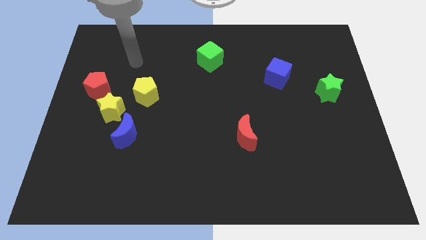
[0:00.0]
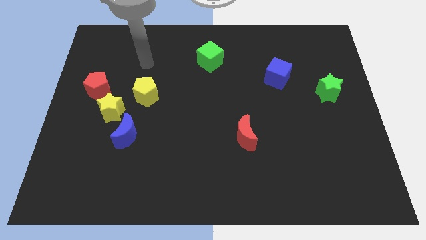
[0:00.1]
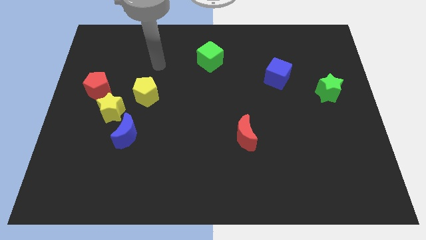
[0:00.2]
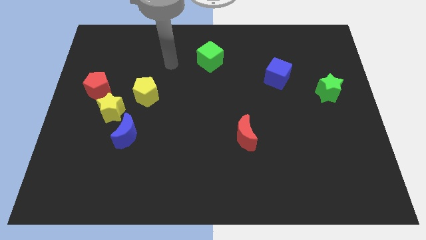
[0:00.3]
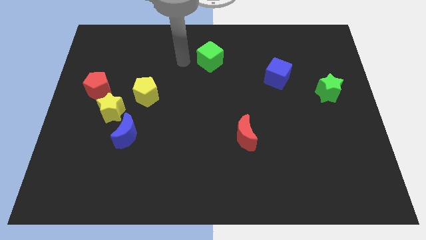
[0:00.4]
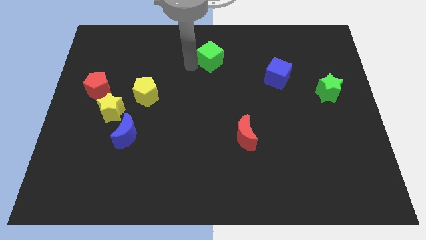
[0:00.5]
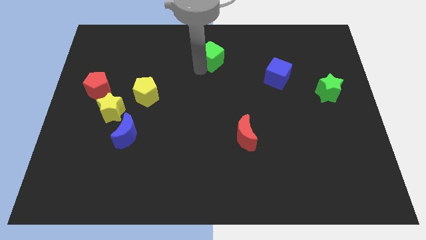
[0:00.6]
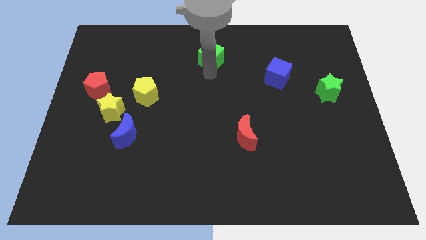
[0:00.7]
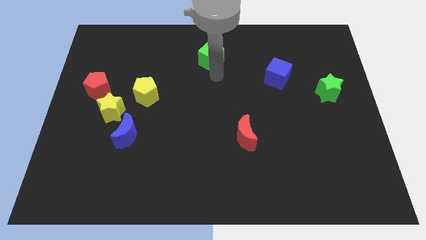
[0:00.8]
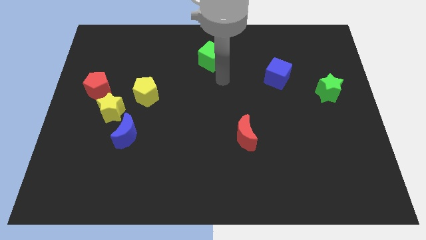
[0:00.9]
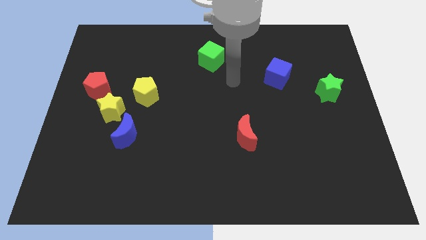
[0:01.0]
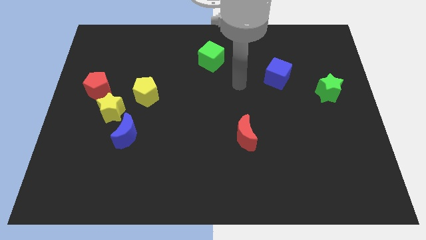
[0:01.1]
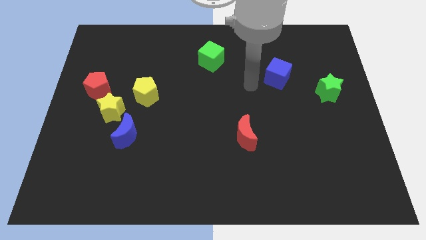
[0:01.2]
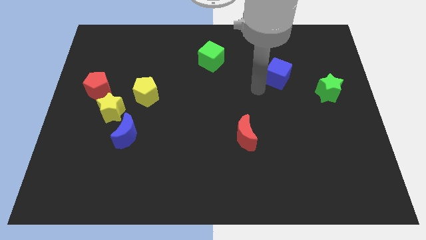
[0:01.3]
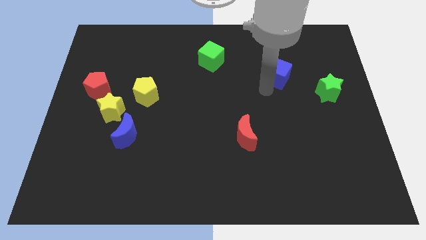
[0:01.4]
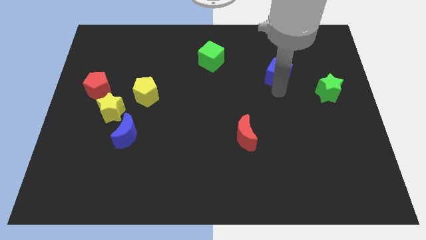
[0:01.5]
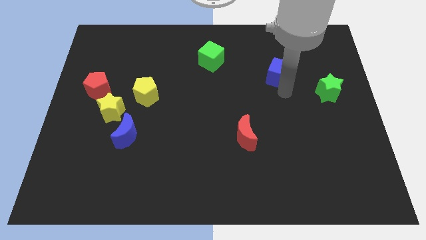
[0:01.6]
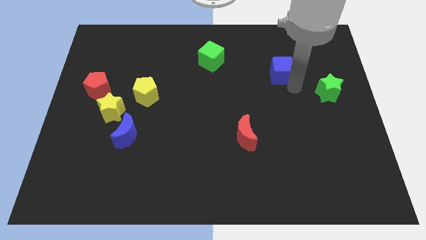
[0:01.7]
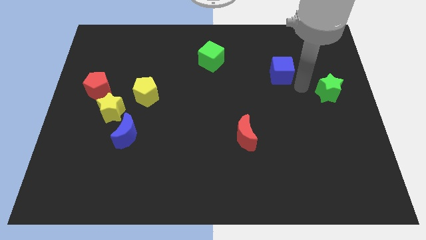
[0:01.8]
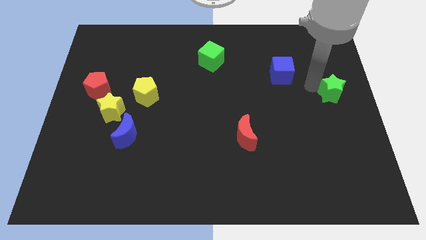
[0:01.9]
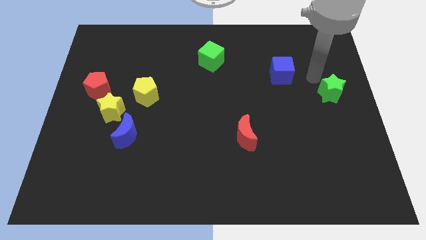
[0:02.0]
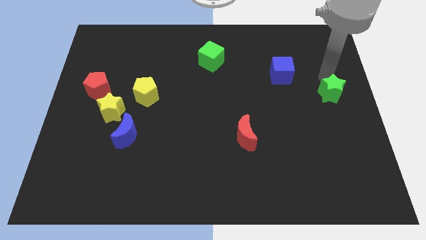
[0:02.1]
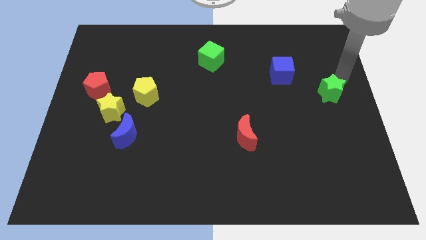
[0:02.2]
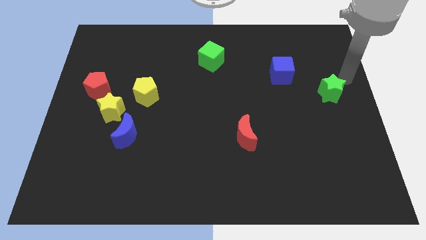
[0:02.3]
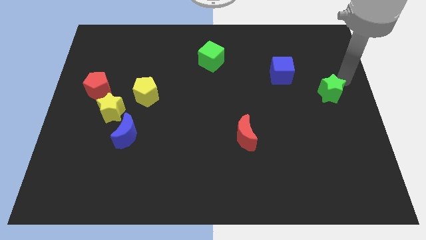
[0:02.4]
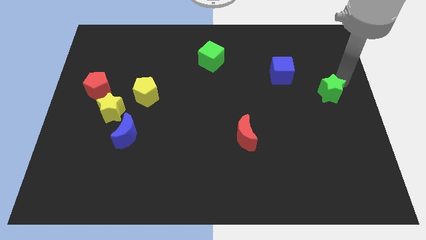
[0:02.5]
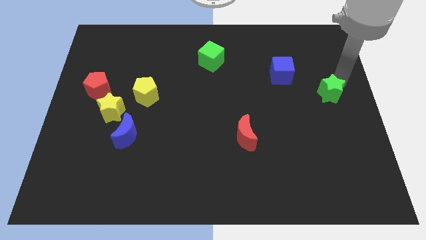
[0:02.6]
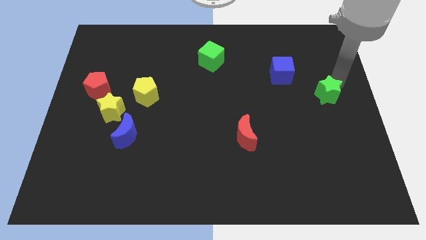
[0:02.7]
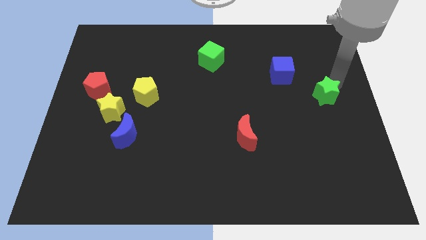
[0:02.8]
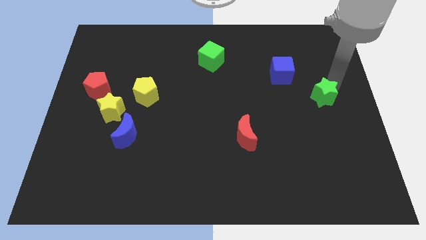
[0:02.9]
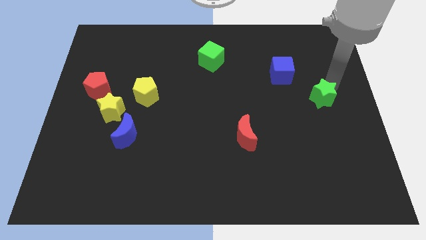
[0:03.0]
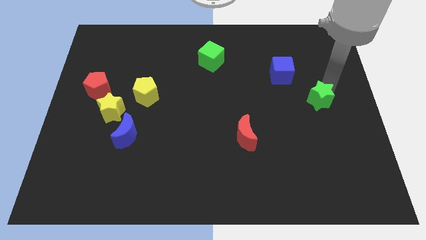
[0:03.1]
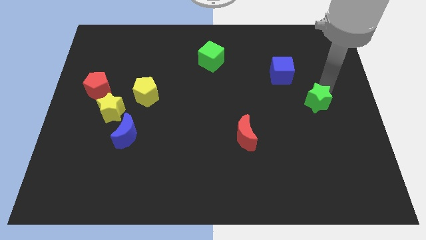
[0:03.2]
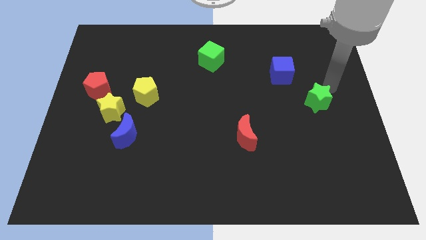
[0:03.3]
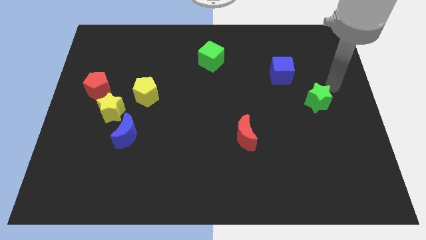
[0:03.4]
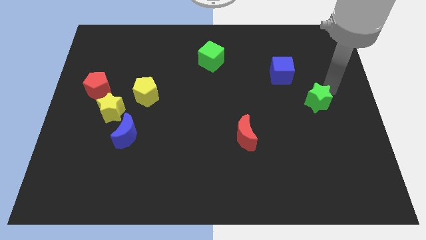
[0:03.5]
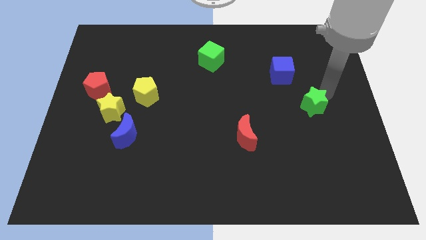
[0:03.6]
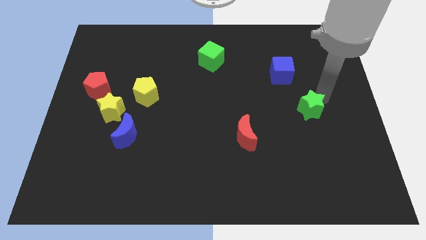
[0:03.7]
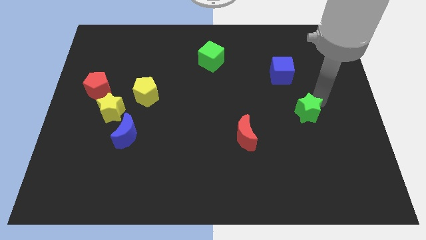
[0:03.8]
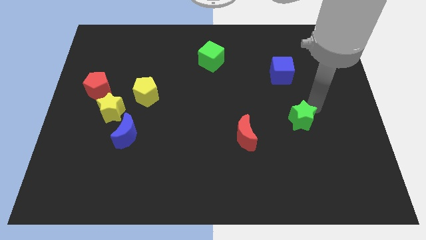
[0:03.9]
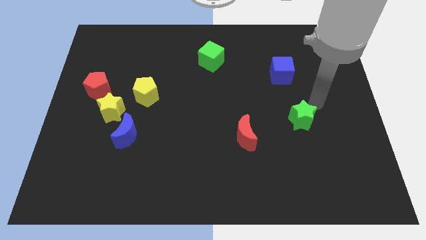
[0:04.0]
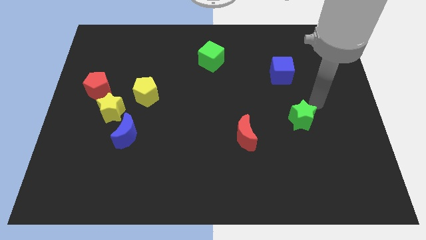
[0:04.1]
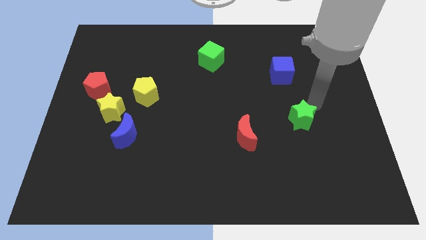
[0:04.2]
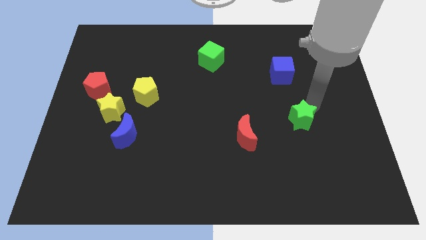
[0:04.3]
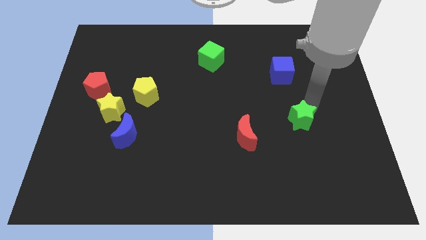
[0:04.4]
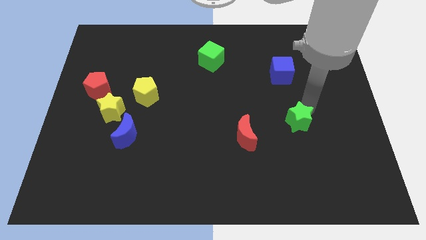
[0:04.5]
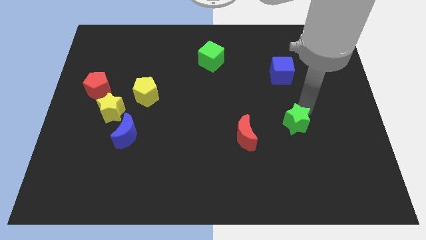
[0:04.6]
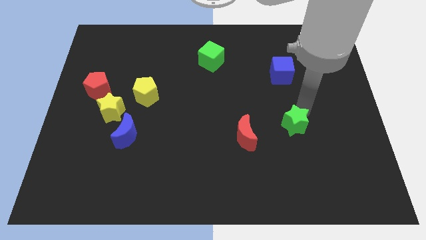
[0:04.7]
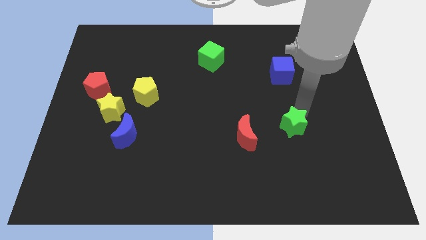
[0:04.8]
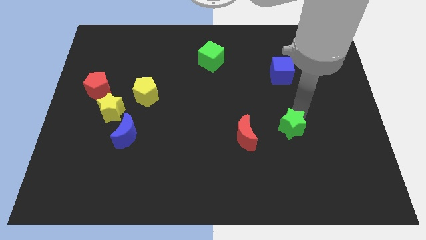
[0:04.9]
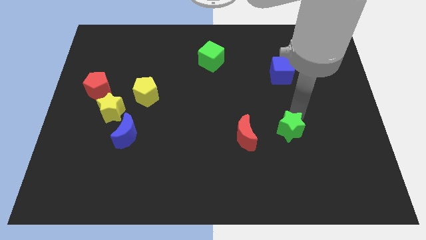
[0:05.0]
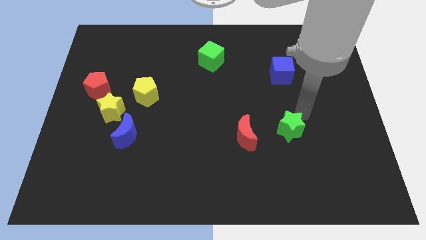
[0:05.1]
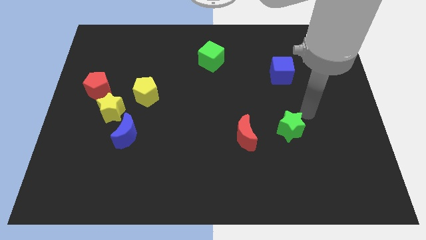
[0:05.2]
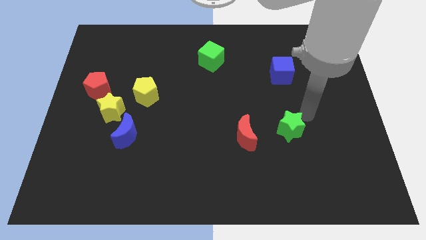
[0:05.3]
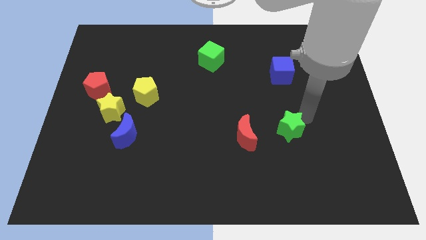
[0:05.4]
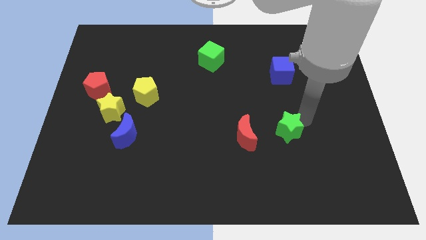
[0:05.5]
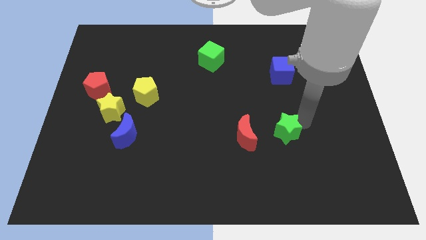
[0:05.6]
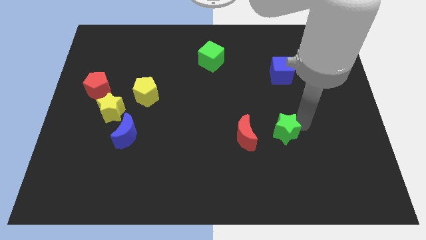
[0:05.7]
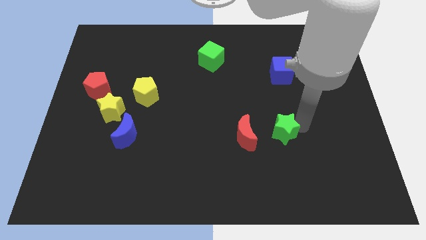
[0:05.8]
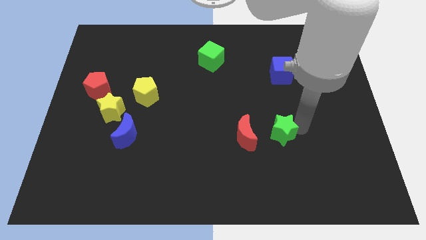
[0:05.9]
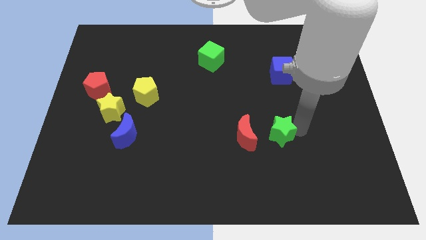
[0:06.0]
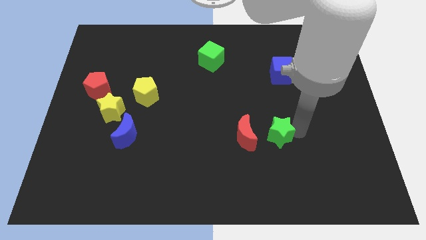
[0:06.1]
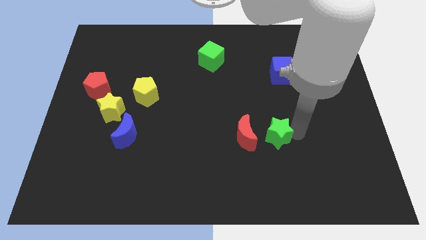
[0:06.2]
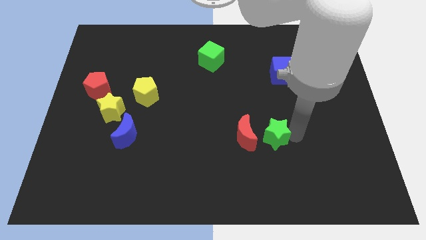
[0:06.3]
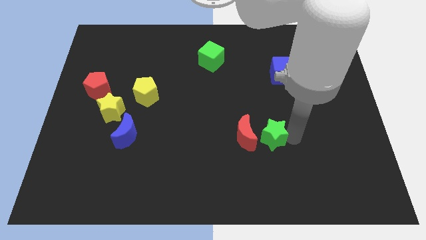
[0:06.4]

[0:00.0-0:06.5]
slide the green star downwards and to the left diagonally

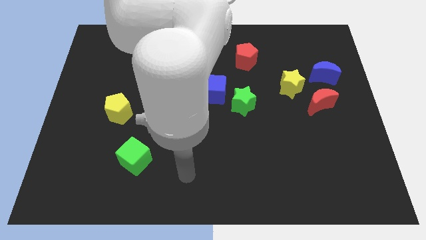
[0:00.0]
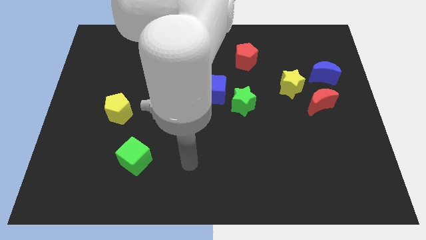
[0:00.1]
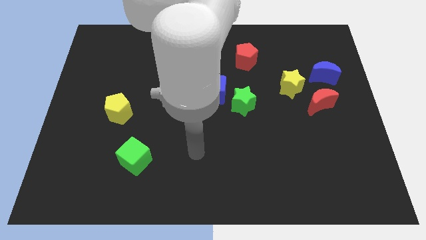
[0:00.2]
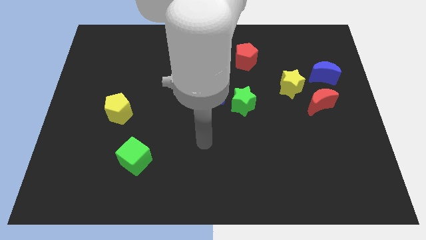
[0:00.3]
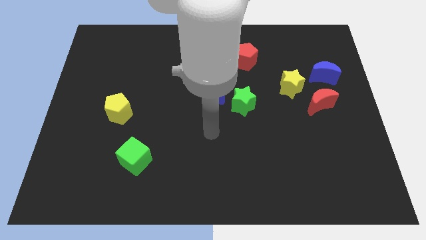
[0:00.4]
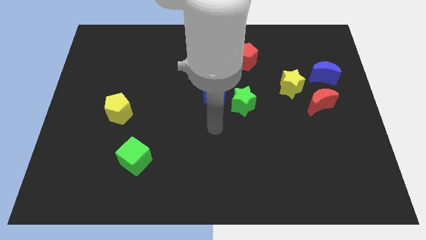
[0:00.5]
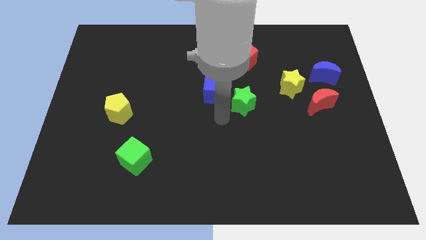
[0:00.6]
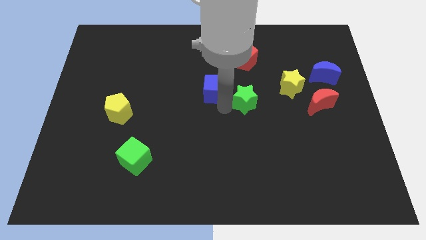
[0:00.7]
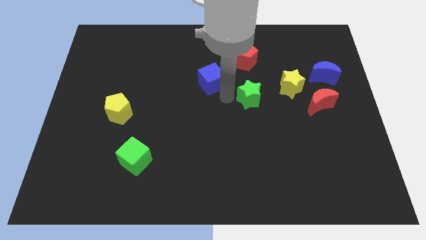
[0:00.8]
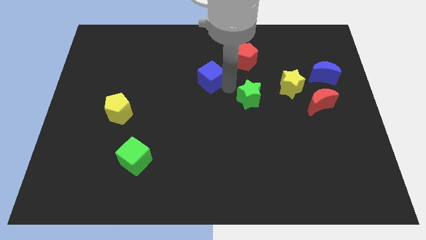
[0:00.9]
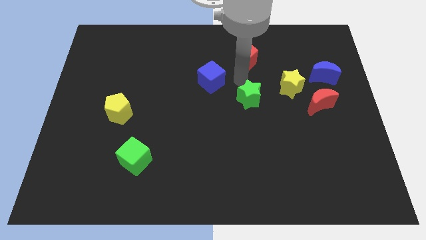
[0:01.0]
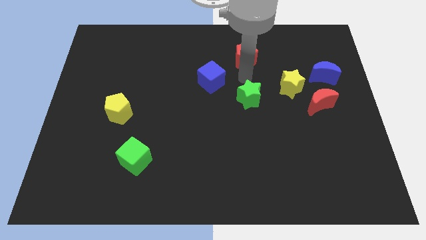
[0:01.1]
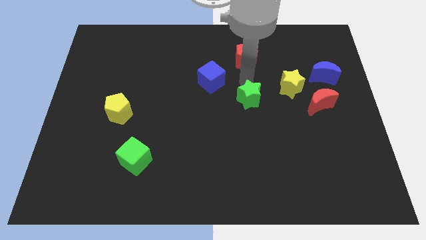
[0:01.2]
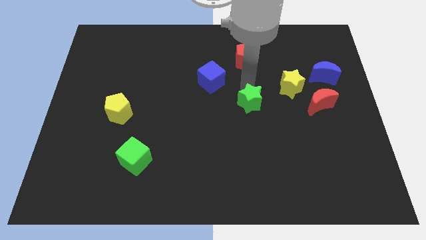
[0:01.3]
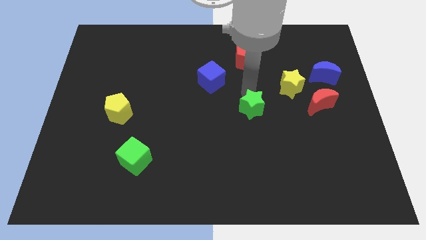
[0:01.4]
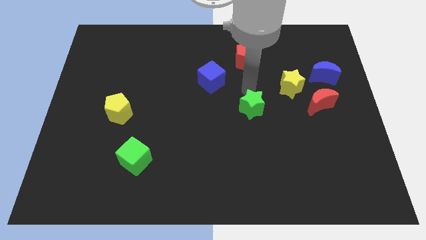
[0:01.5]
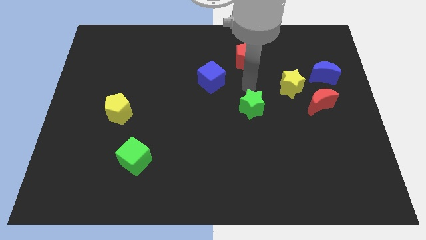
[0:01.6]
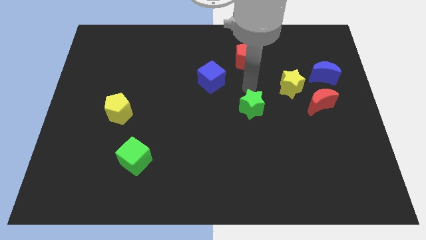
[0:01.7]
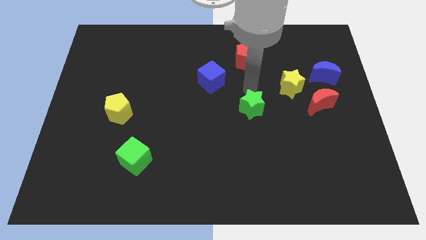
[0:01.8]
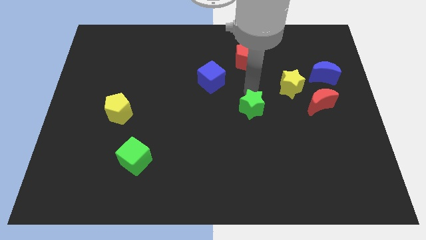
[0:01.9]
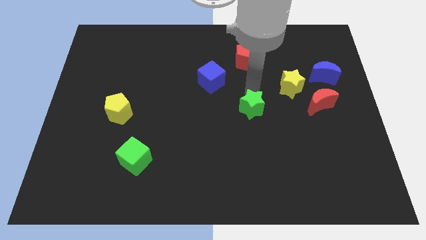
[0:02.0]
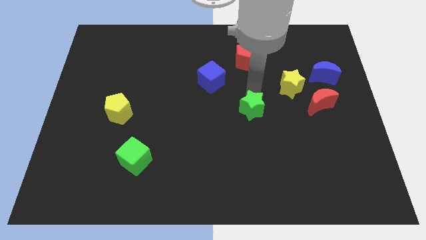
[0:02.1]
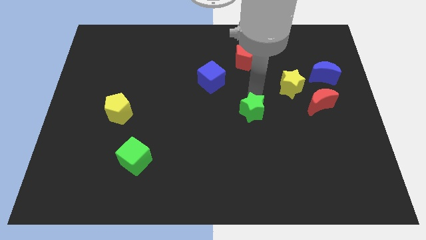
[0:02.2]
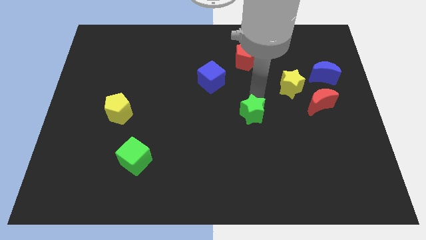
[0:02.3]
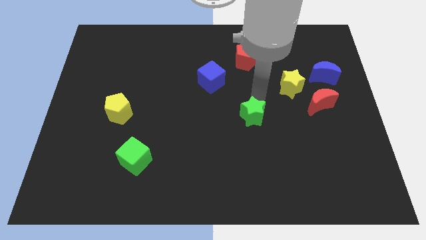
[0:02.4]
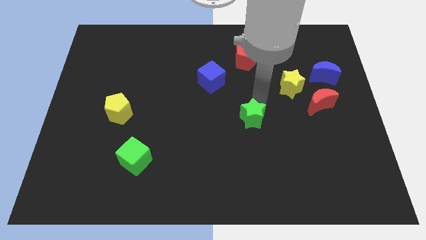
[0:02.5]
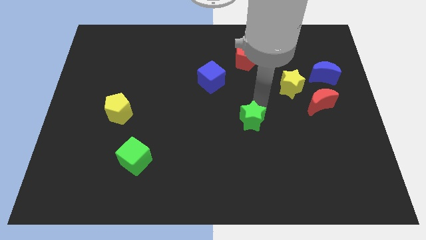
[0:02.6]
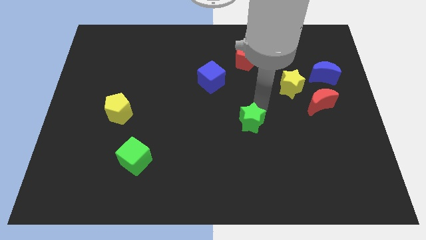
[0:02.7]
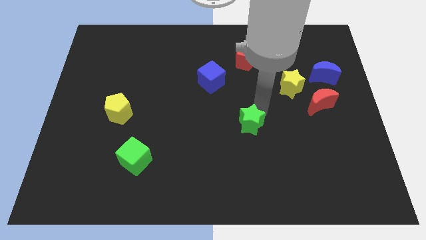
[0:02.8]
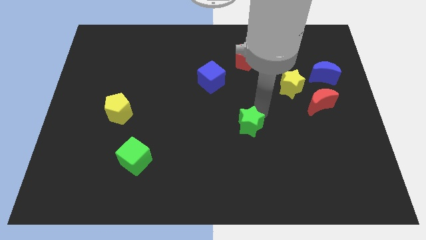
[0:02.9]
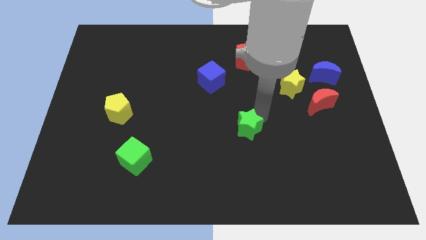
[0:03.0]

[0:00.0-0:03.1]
slightly push the green star downwards
